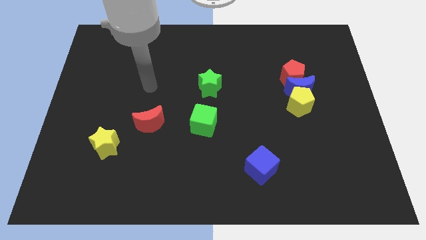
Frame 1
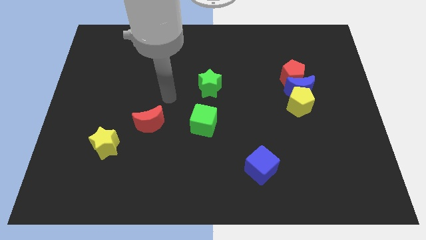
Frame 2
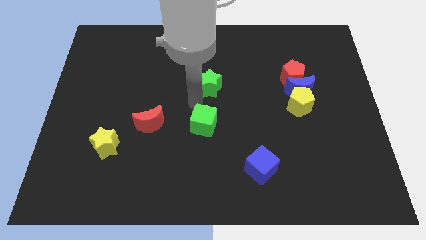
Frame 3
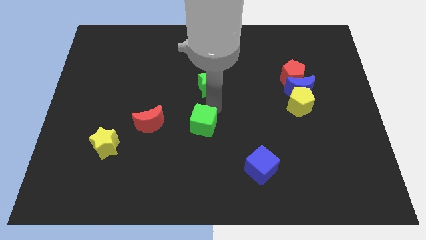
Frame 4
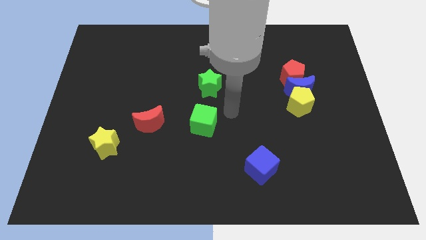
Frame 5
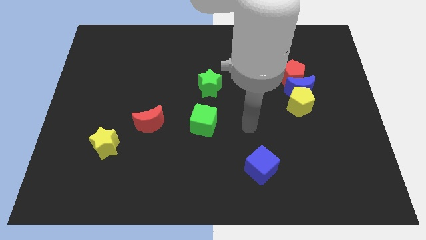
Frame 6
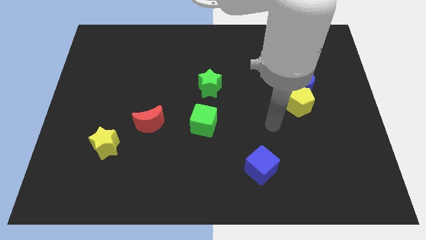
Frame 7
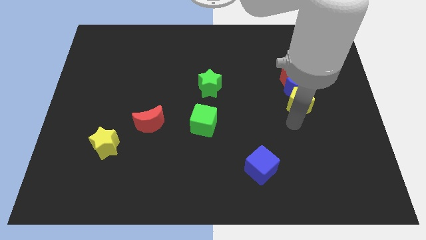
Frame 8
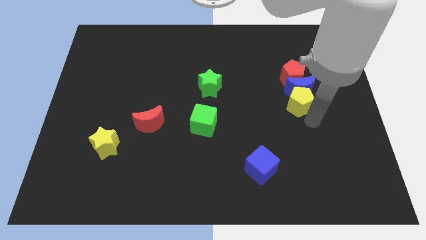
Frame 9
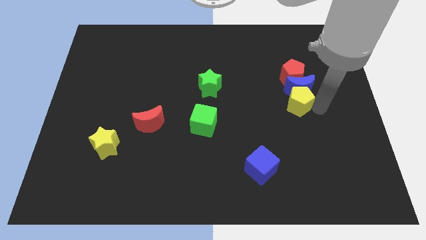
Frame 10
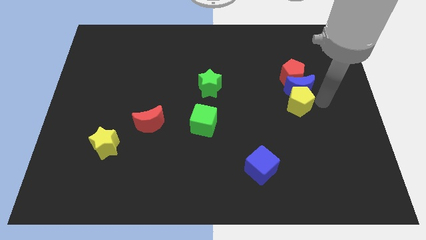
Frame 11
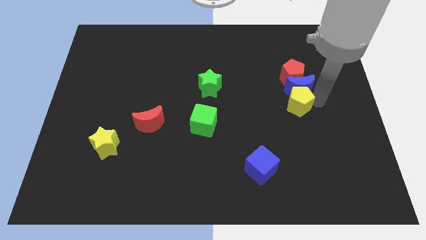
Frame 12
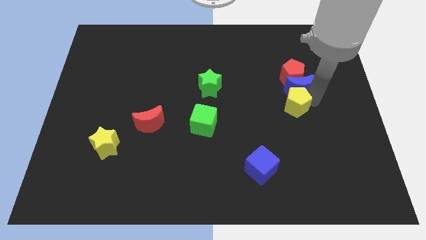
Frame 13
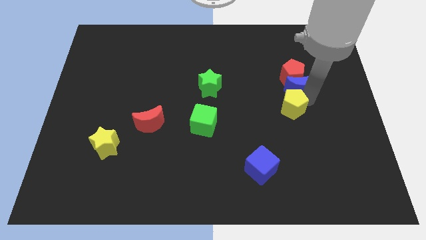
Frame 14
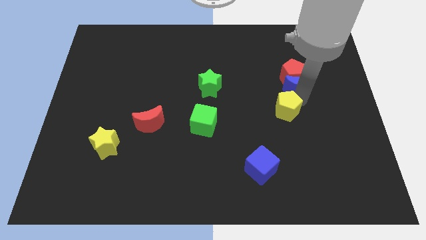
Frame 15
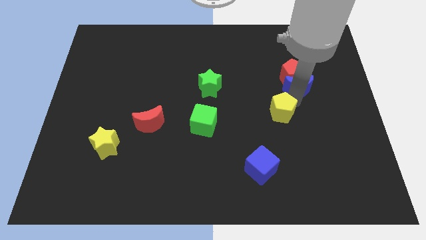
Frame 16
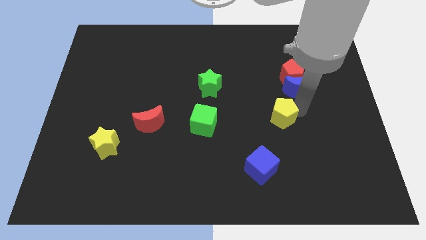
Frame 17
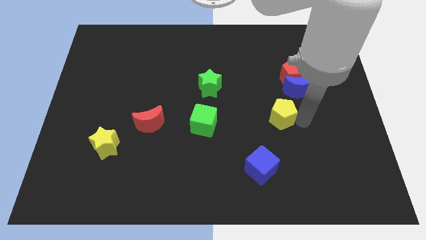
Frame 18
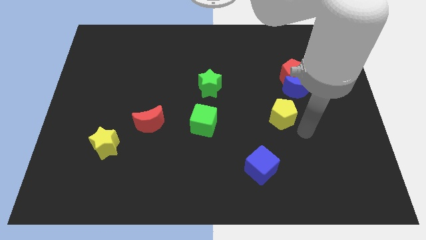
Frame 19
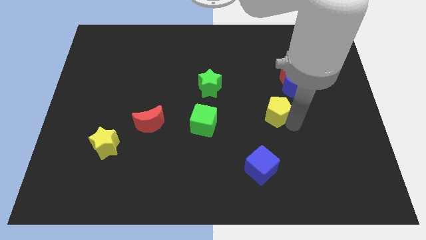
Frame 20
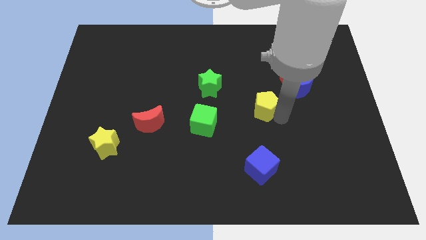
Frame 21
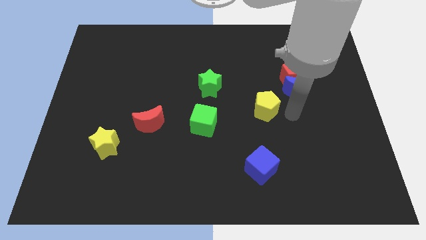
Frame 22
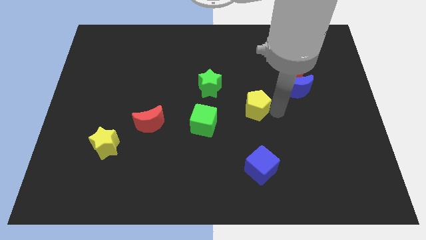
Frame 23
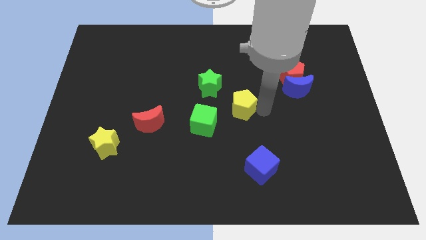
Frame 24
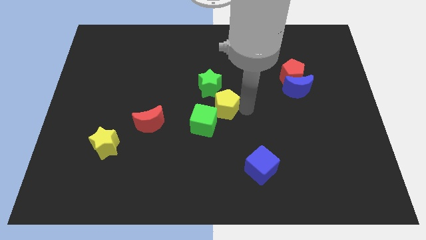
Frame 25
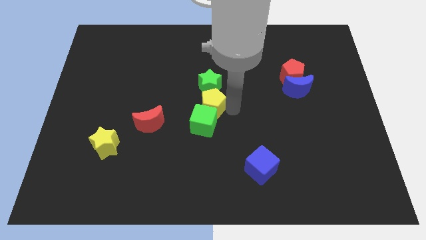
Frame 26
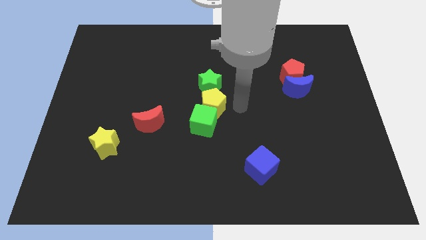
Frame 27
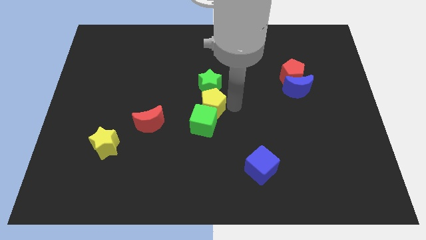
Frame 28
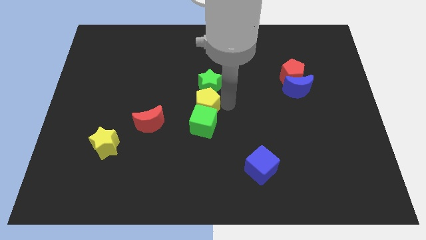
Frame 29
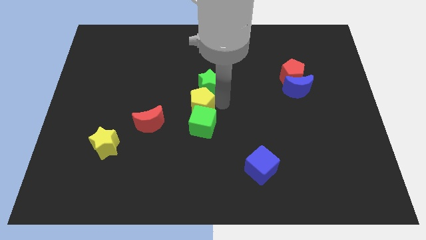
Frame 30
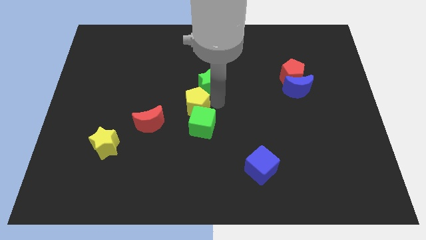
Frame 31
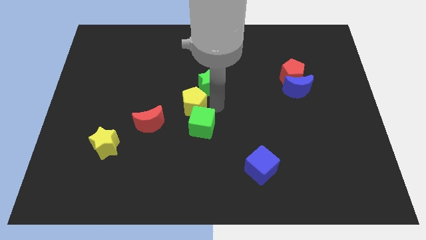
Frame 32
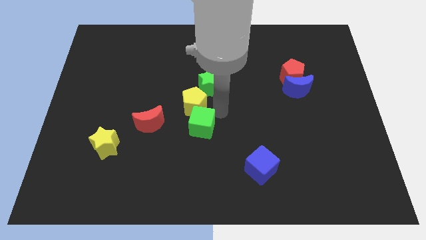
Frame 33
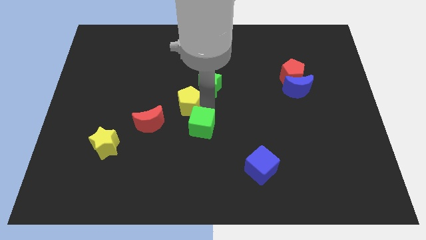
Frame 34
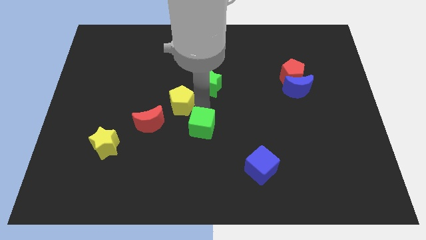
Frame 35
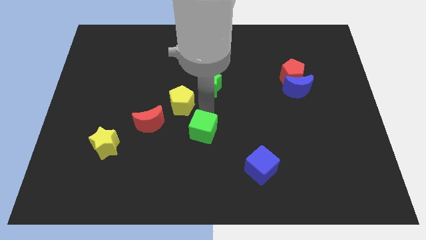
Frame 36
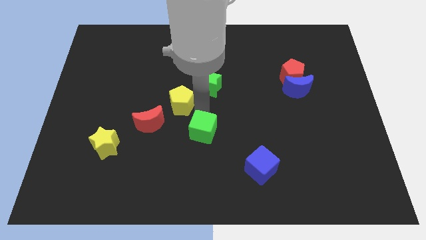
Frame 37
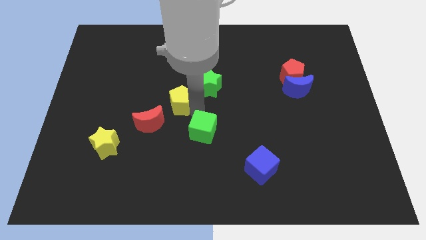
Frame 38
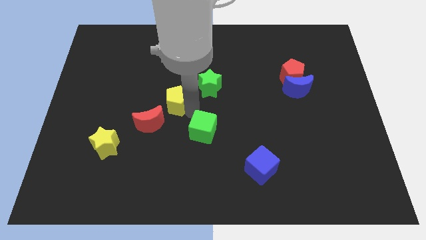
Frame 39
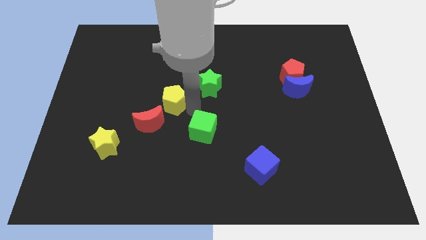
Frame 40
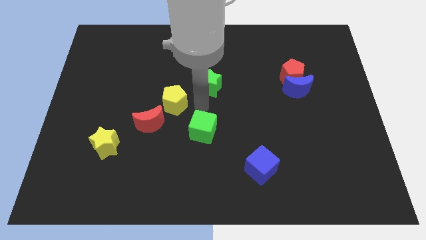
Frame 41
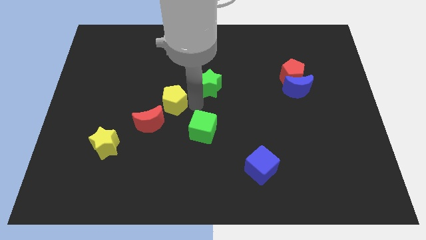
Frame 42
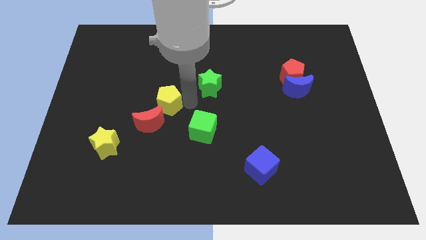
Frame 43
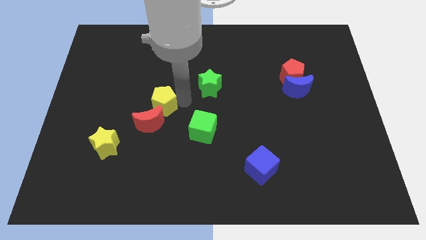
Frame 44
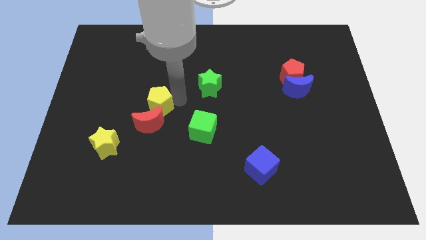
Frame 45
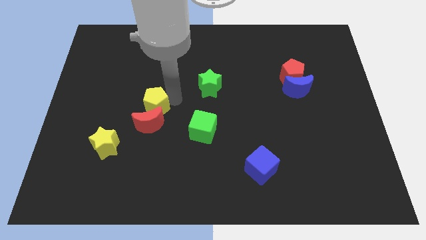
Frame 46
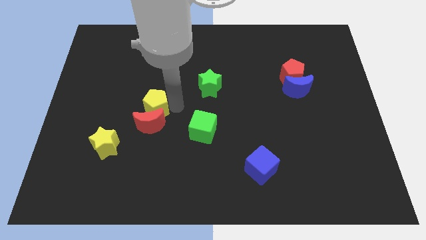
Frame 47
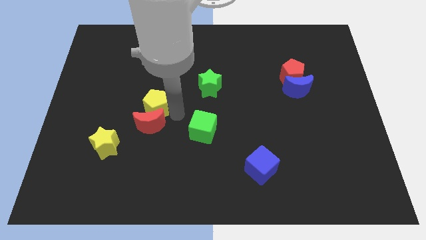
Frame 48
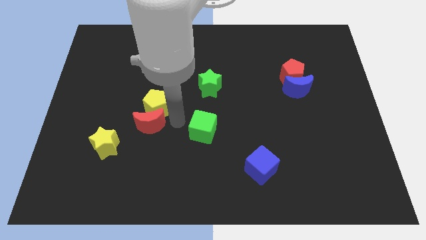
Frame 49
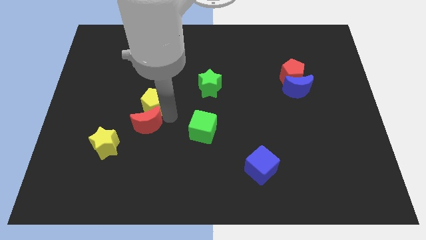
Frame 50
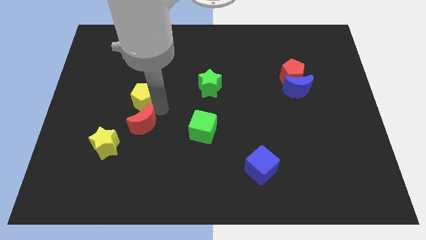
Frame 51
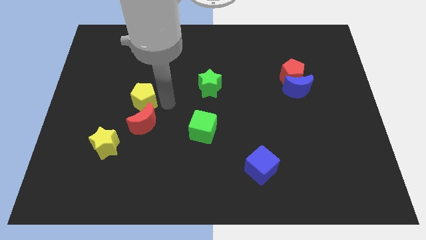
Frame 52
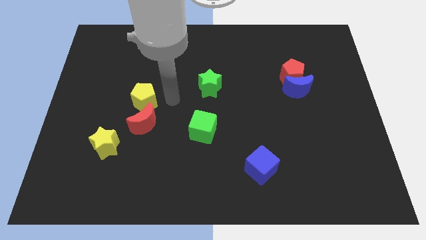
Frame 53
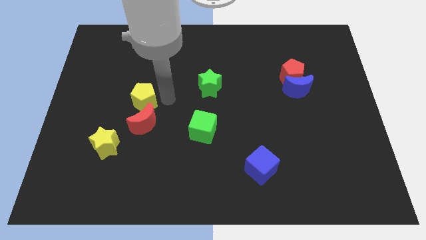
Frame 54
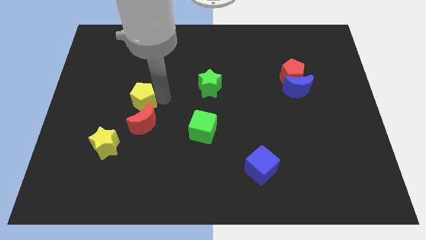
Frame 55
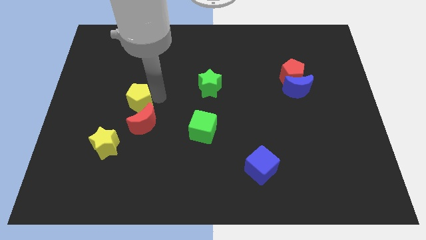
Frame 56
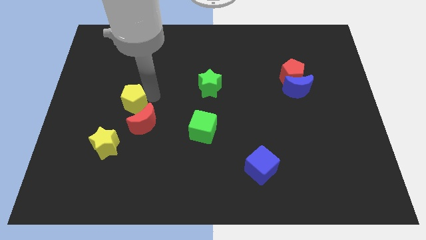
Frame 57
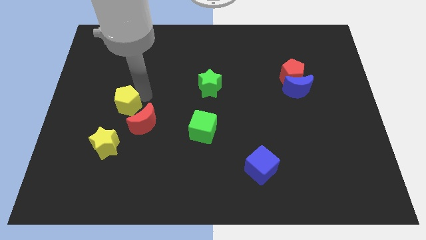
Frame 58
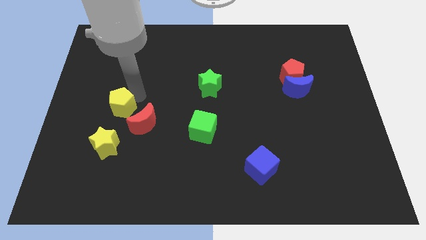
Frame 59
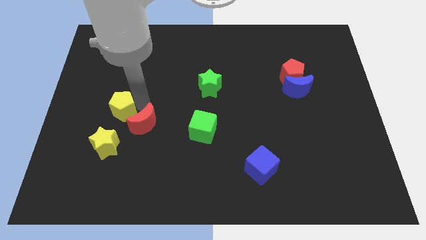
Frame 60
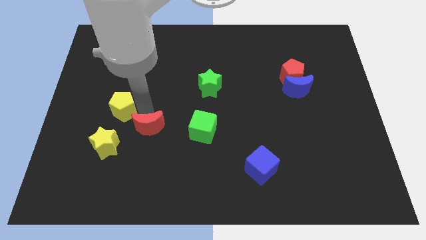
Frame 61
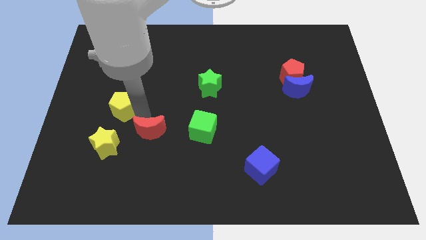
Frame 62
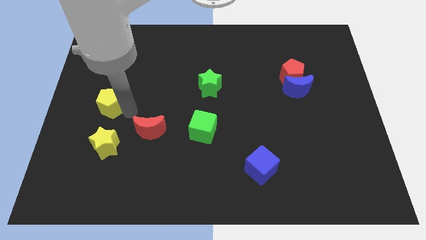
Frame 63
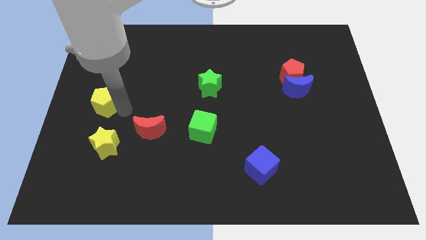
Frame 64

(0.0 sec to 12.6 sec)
put the yellow pentagon to the left side
